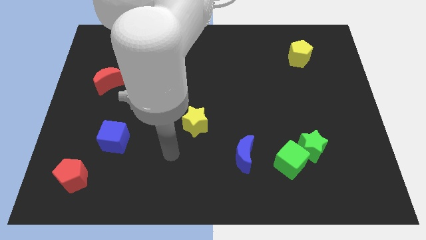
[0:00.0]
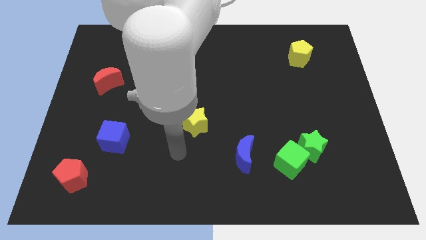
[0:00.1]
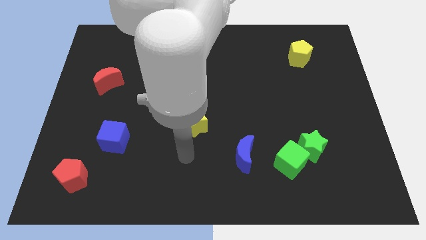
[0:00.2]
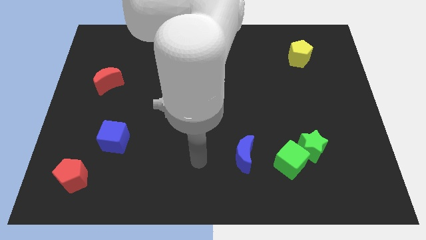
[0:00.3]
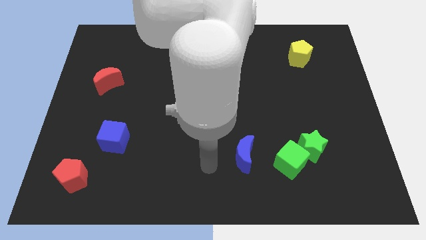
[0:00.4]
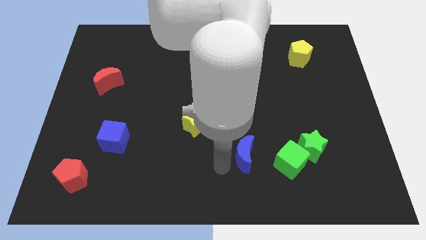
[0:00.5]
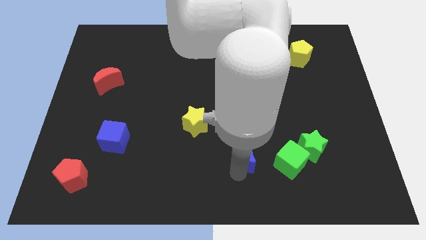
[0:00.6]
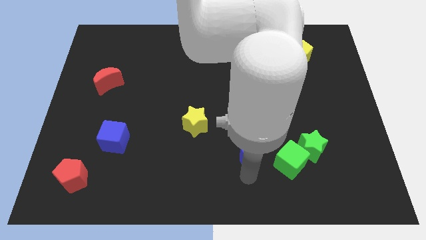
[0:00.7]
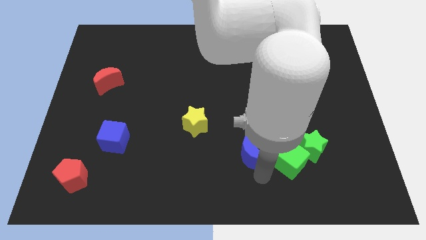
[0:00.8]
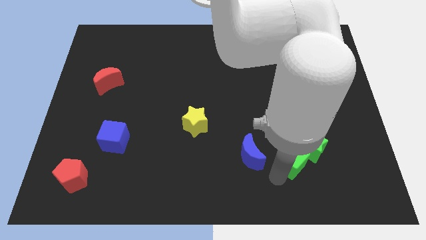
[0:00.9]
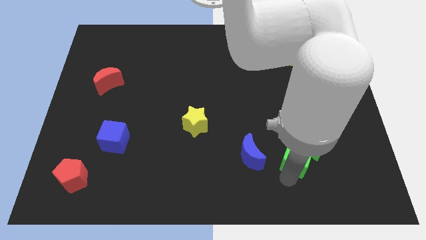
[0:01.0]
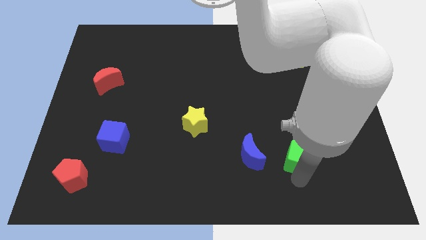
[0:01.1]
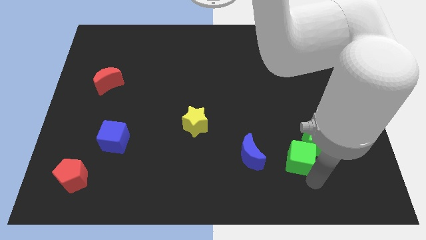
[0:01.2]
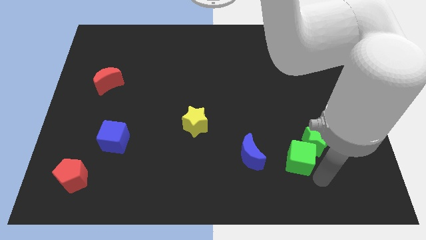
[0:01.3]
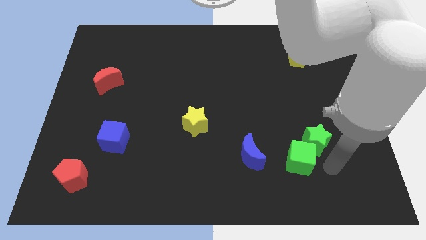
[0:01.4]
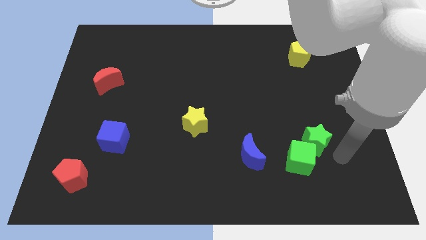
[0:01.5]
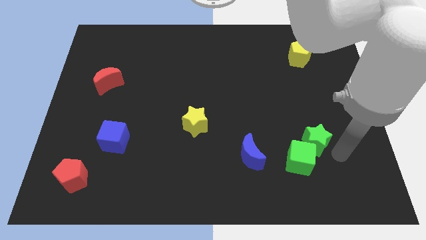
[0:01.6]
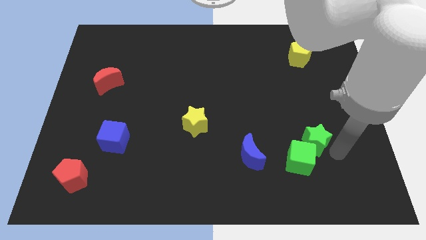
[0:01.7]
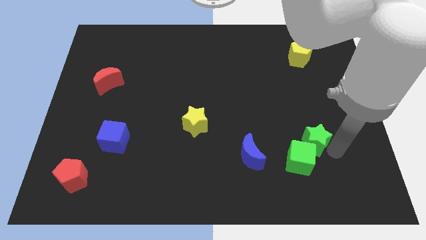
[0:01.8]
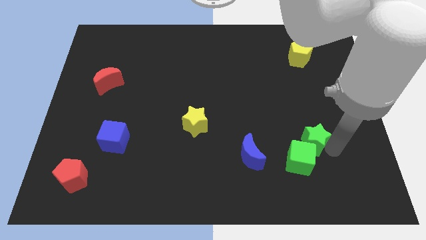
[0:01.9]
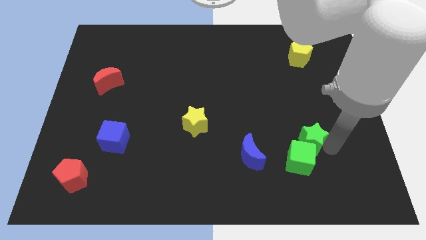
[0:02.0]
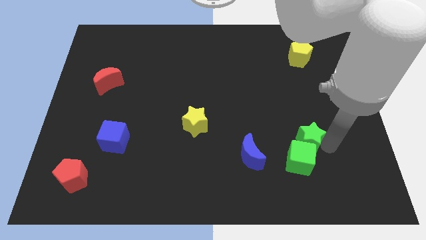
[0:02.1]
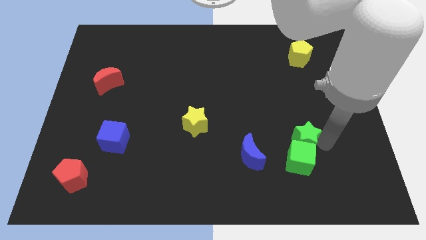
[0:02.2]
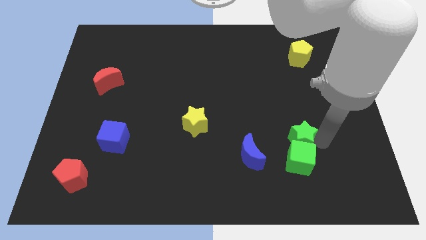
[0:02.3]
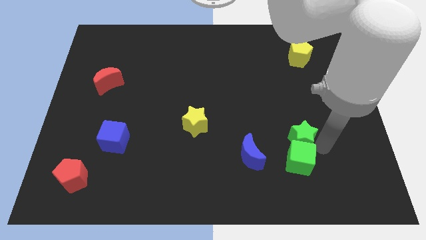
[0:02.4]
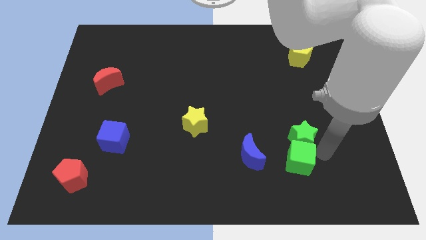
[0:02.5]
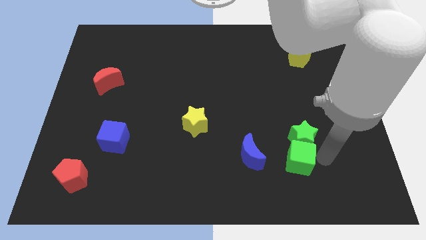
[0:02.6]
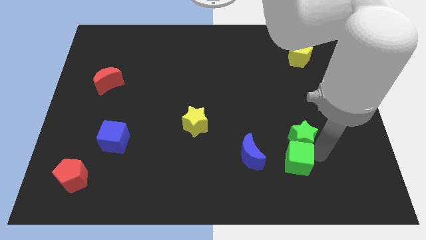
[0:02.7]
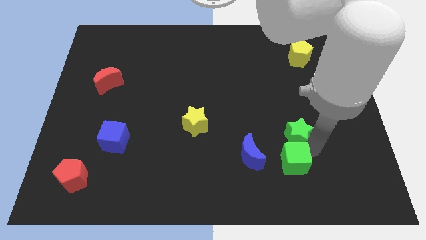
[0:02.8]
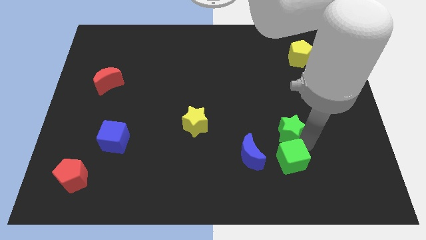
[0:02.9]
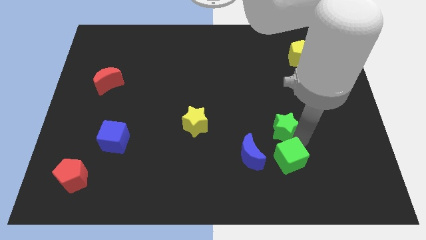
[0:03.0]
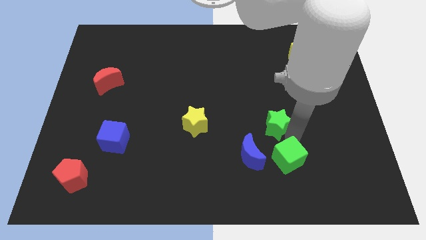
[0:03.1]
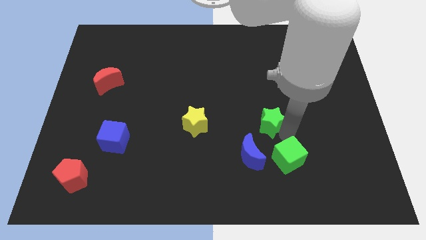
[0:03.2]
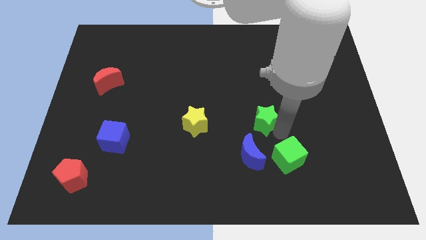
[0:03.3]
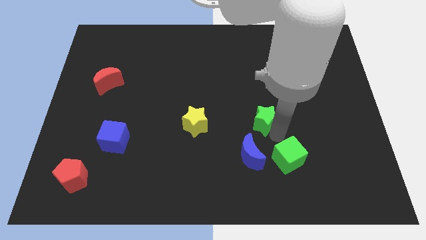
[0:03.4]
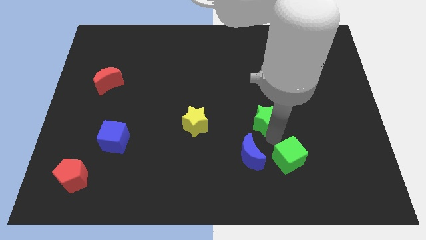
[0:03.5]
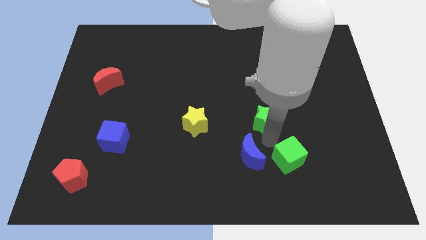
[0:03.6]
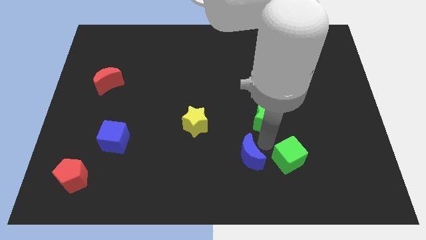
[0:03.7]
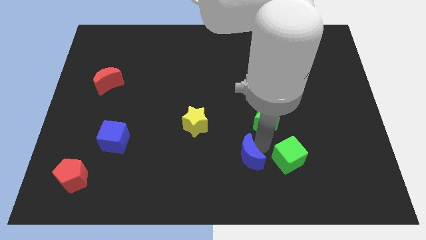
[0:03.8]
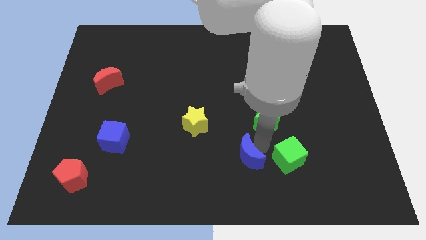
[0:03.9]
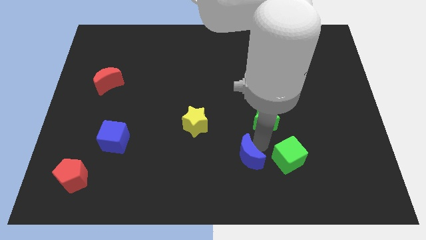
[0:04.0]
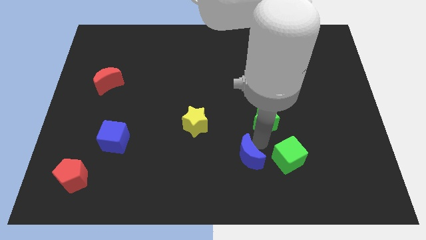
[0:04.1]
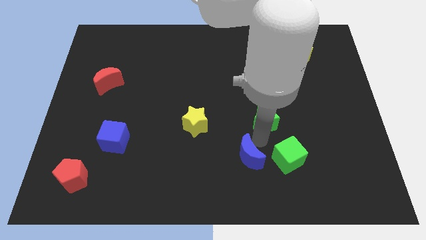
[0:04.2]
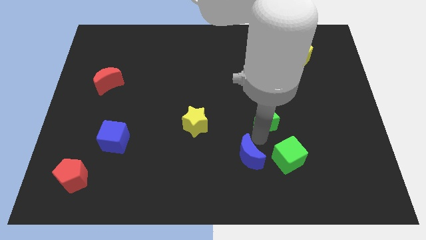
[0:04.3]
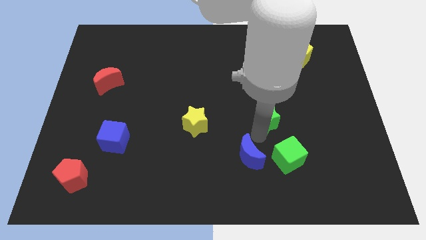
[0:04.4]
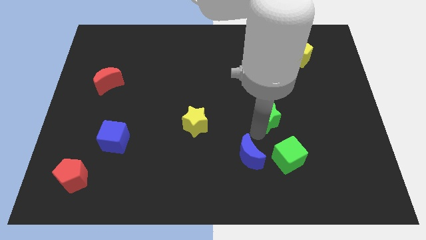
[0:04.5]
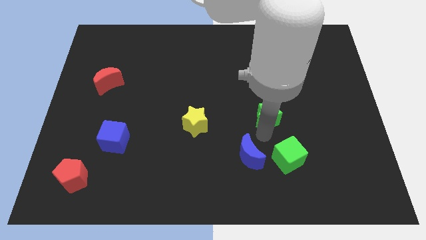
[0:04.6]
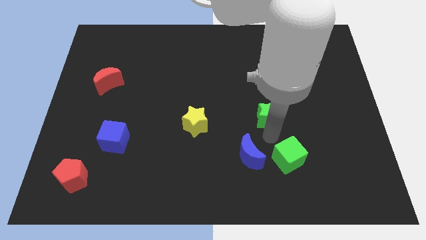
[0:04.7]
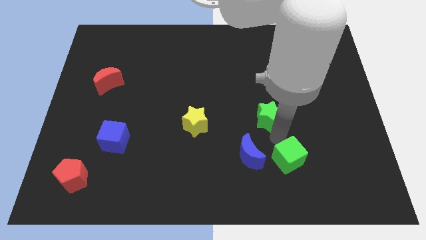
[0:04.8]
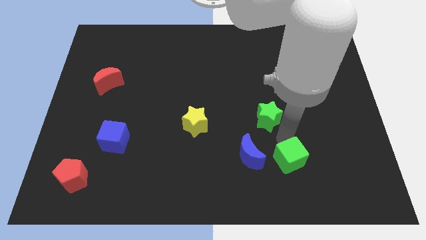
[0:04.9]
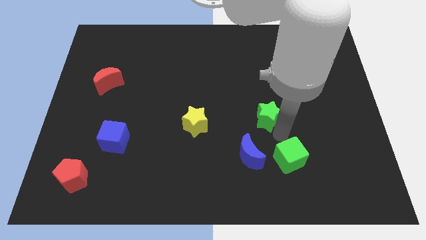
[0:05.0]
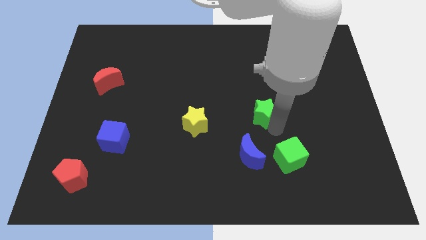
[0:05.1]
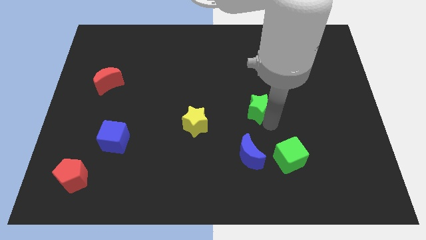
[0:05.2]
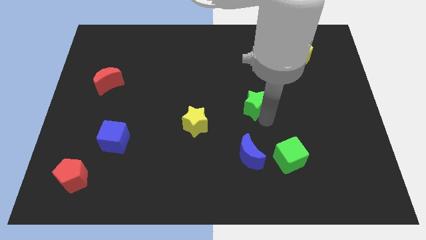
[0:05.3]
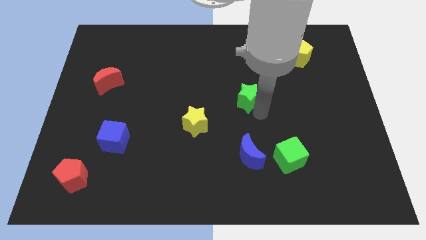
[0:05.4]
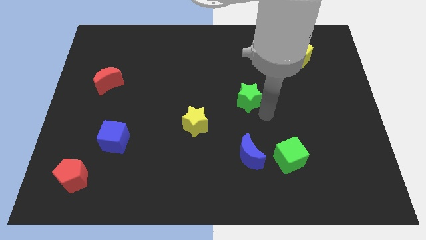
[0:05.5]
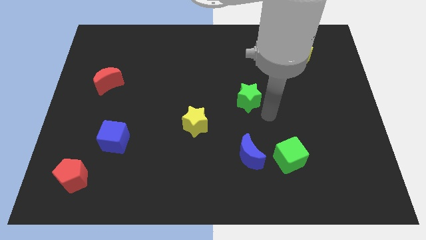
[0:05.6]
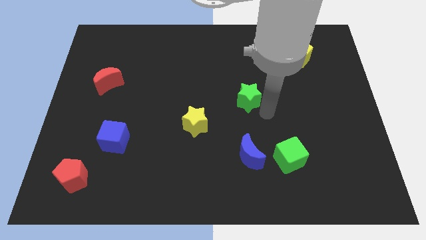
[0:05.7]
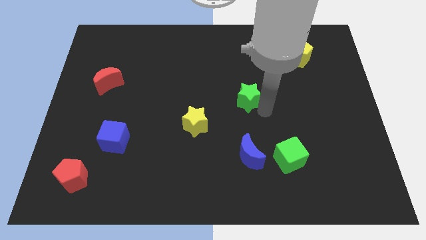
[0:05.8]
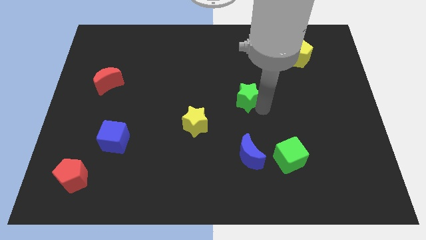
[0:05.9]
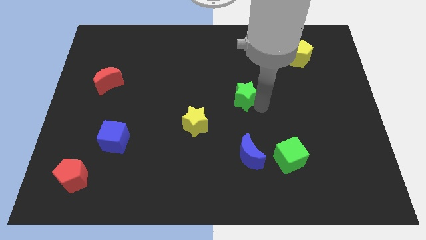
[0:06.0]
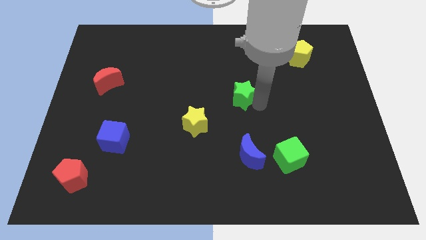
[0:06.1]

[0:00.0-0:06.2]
push the green star upwards and then left

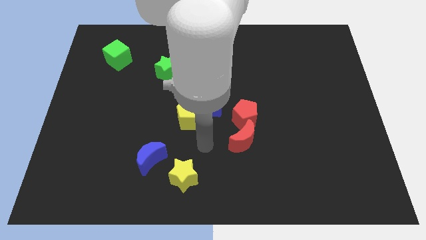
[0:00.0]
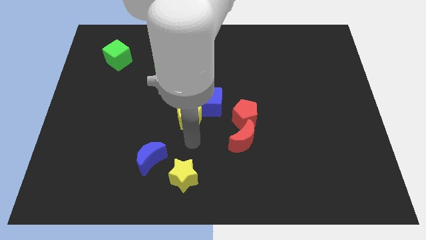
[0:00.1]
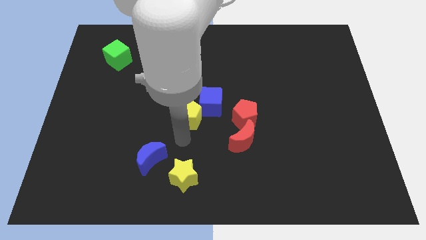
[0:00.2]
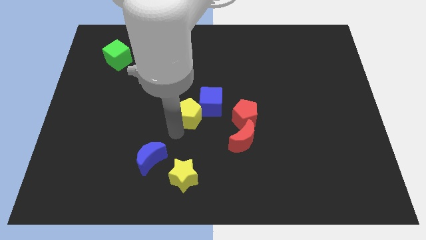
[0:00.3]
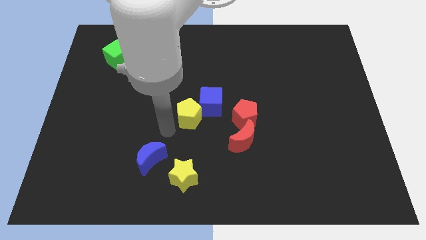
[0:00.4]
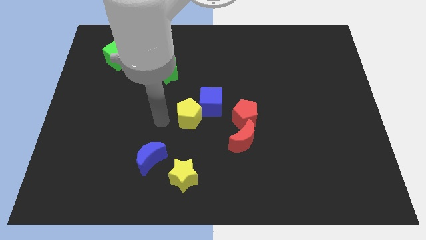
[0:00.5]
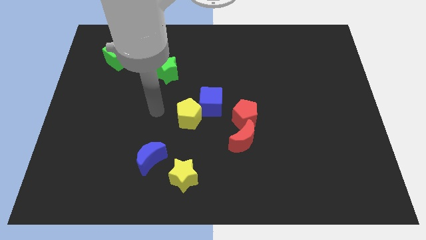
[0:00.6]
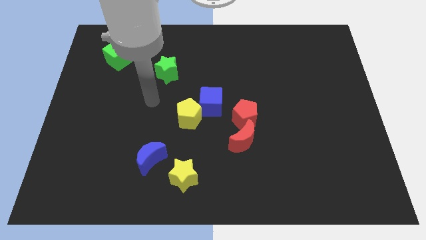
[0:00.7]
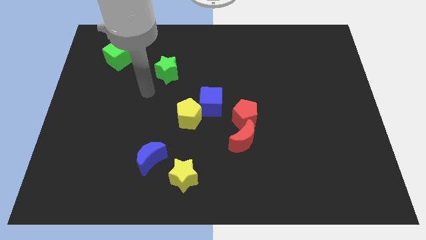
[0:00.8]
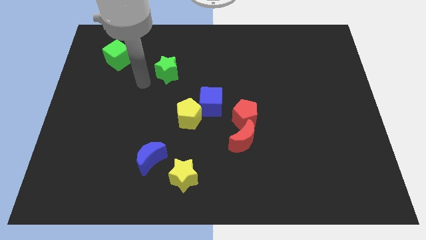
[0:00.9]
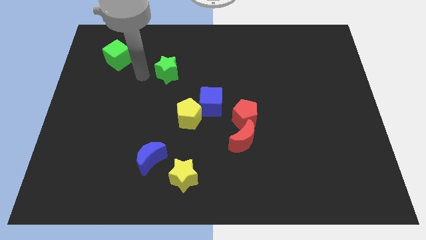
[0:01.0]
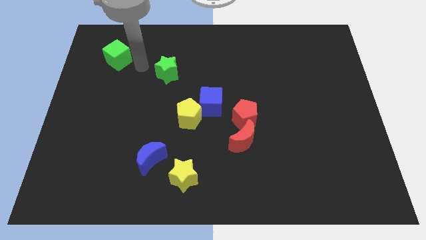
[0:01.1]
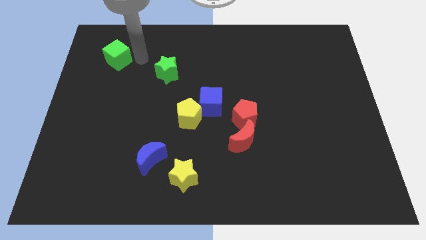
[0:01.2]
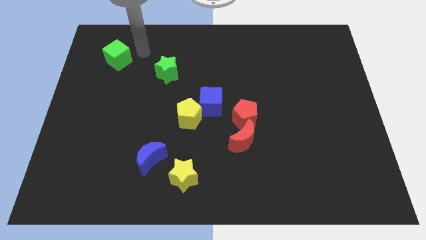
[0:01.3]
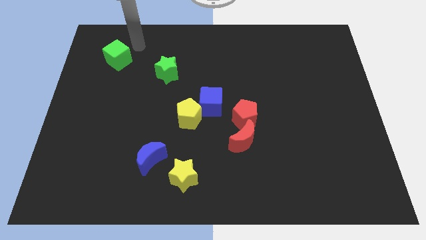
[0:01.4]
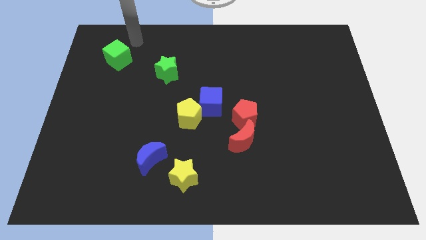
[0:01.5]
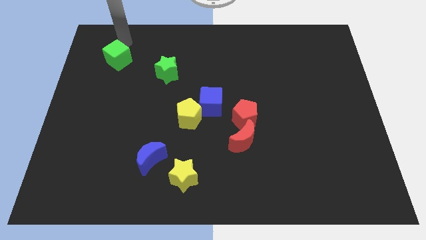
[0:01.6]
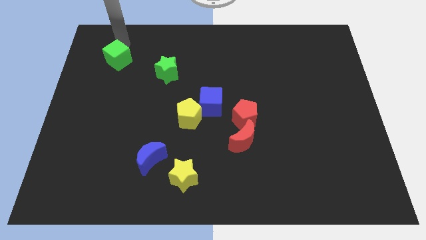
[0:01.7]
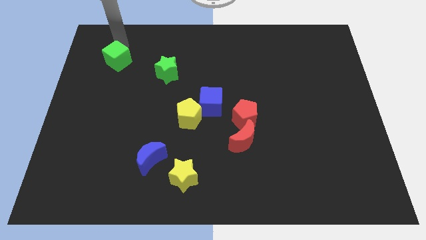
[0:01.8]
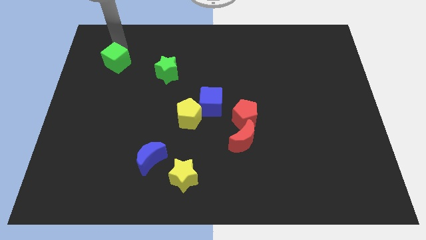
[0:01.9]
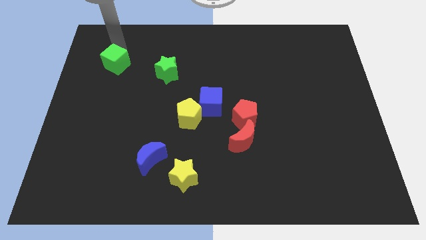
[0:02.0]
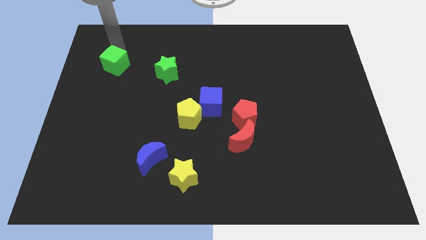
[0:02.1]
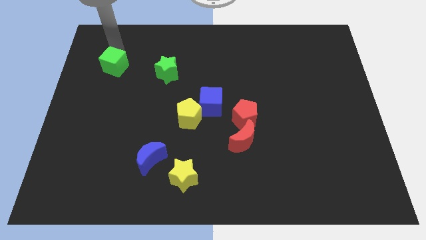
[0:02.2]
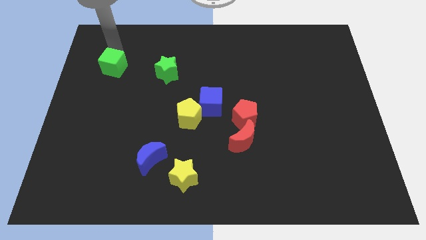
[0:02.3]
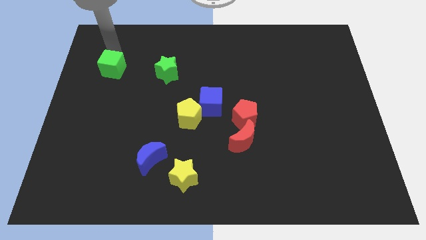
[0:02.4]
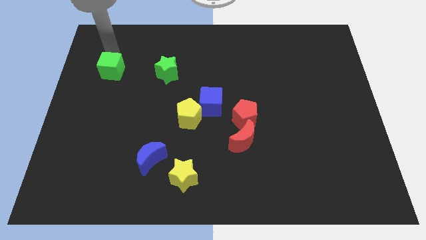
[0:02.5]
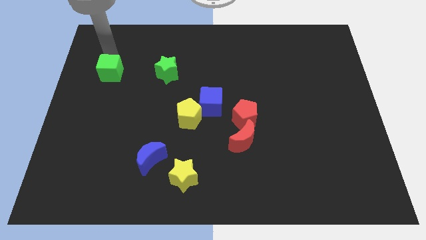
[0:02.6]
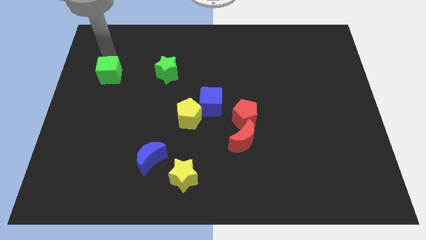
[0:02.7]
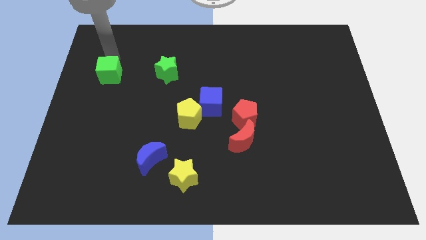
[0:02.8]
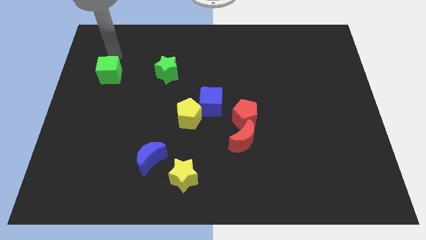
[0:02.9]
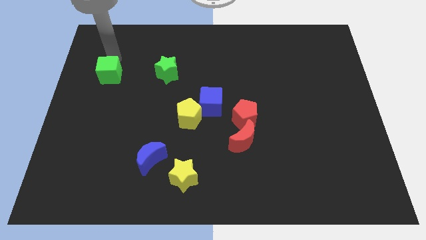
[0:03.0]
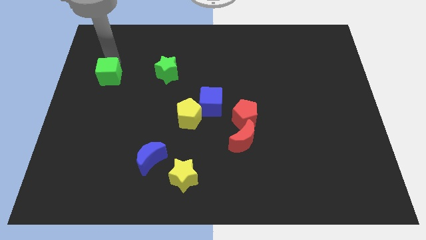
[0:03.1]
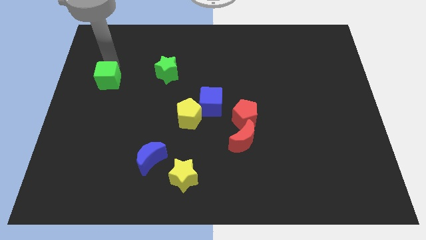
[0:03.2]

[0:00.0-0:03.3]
slightly move the green cube down
